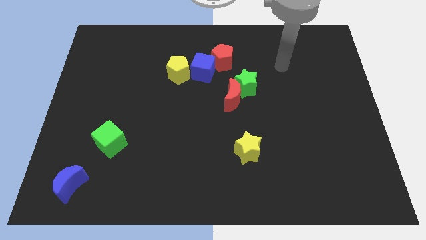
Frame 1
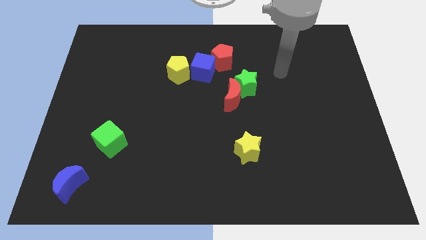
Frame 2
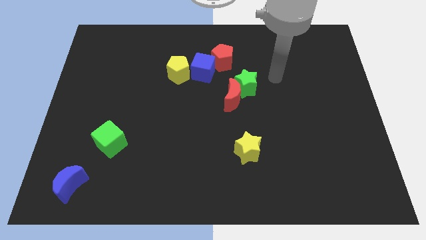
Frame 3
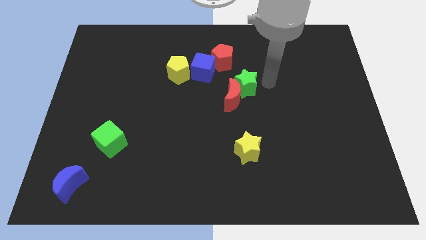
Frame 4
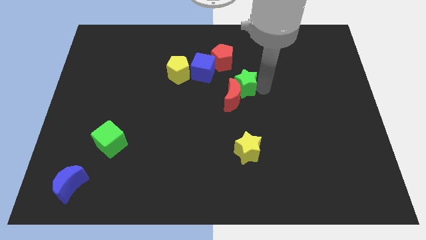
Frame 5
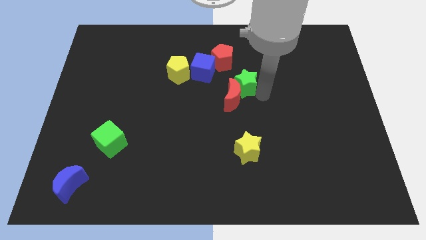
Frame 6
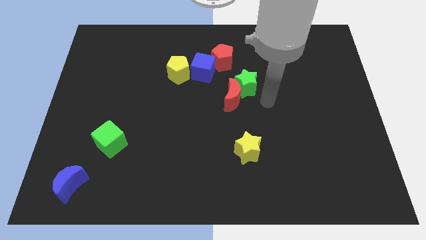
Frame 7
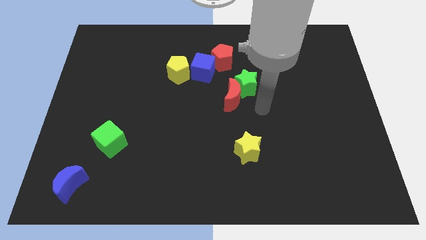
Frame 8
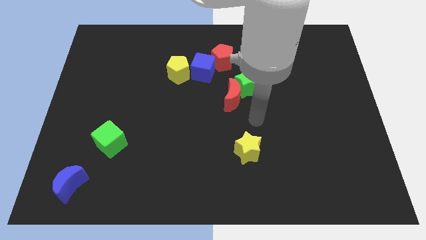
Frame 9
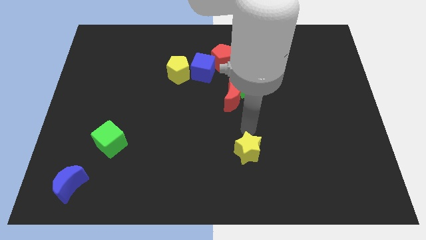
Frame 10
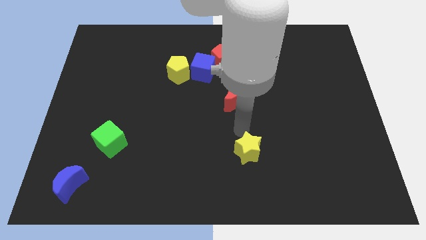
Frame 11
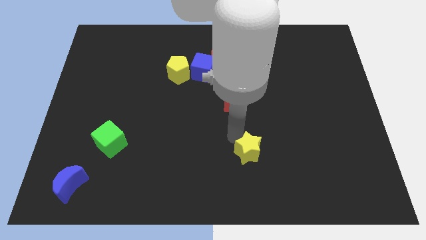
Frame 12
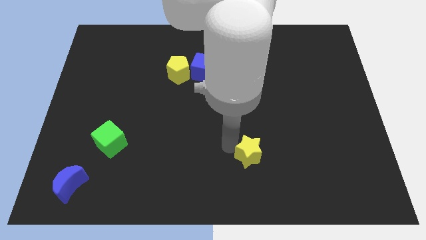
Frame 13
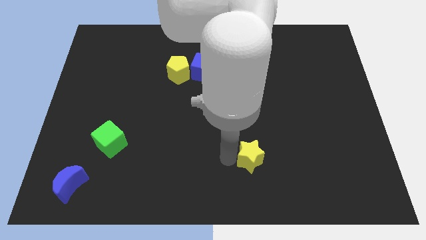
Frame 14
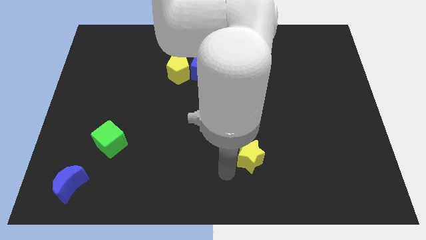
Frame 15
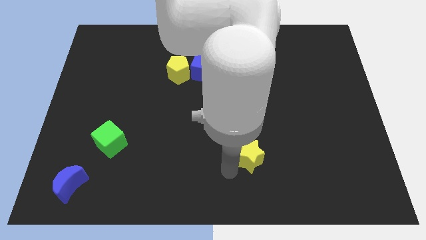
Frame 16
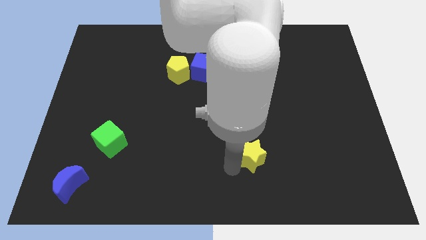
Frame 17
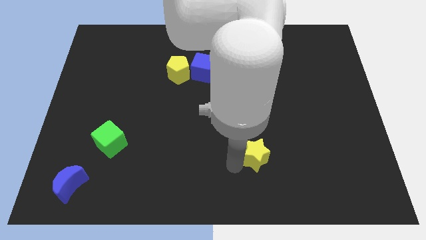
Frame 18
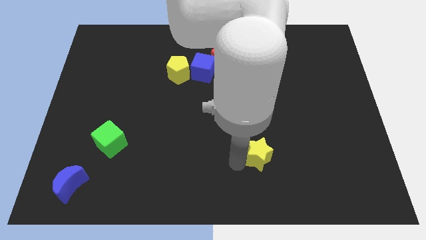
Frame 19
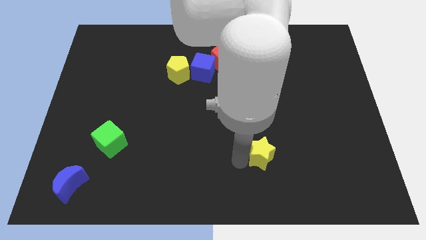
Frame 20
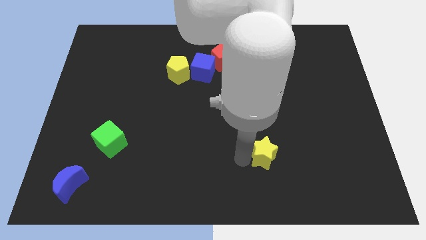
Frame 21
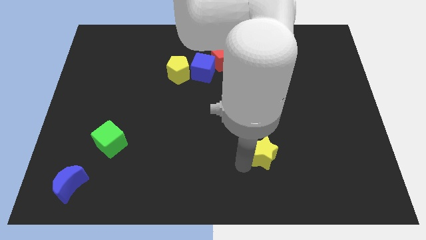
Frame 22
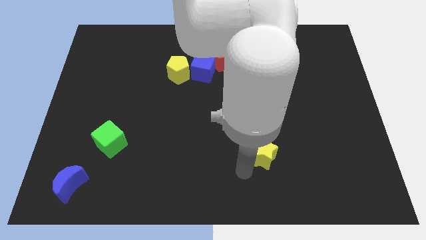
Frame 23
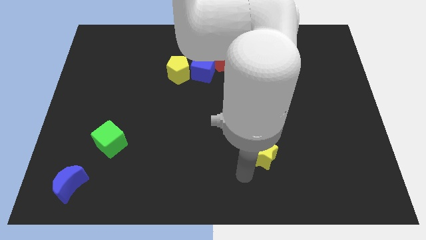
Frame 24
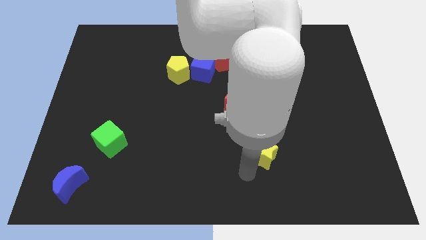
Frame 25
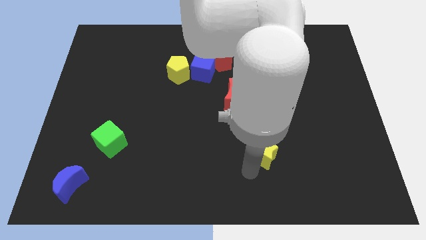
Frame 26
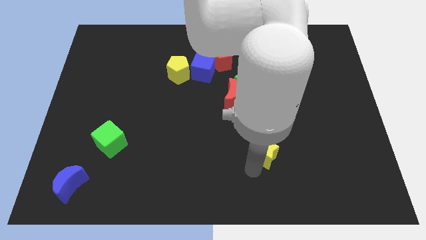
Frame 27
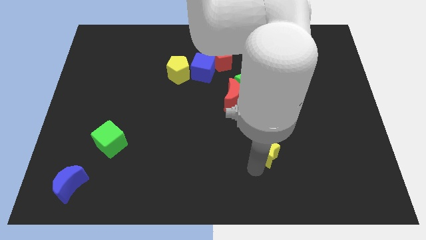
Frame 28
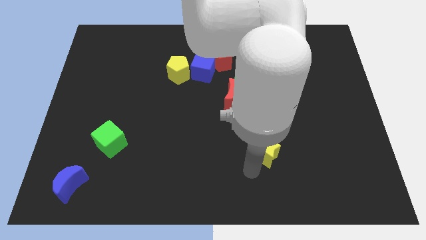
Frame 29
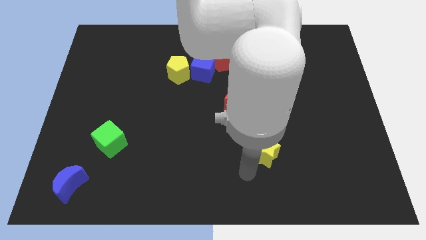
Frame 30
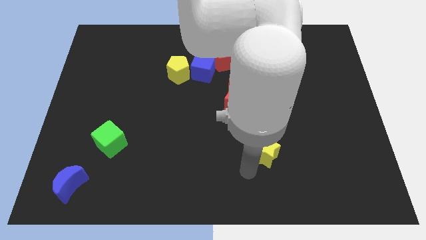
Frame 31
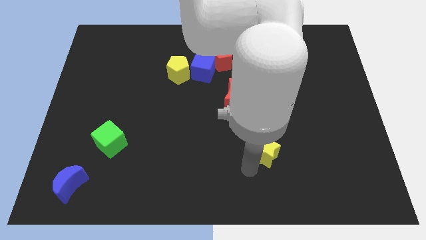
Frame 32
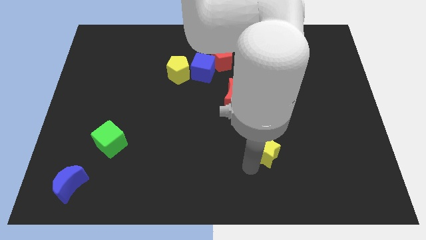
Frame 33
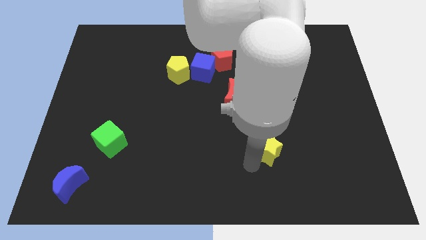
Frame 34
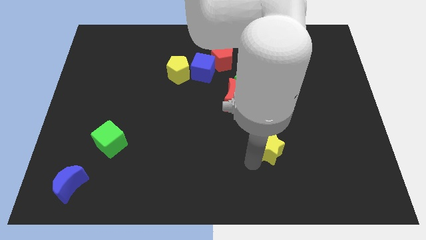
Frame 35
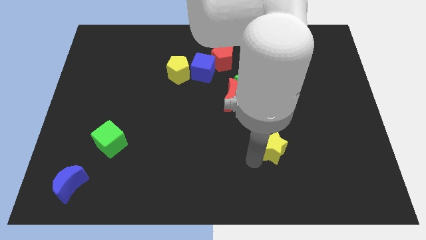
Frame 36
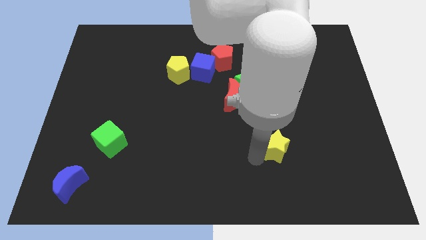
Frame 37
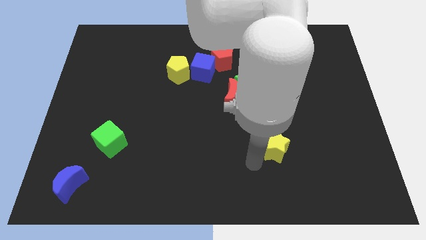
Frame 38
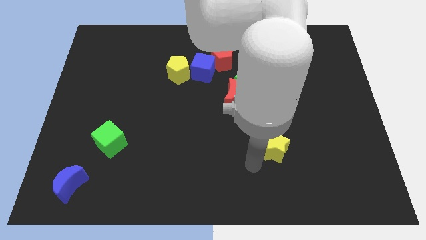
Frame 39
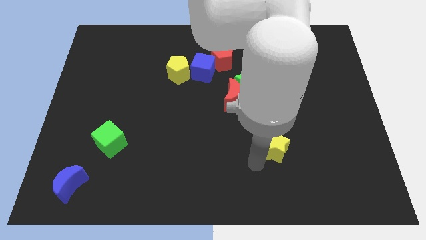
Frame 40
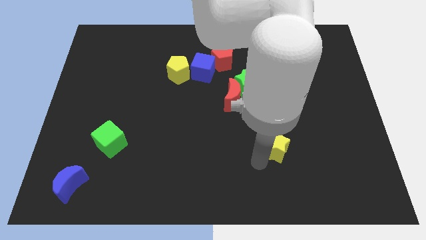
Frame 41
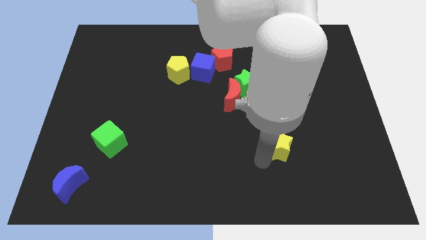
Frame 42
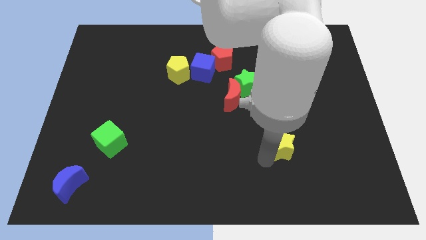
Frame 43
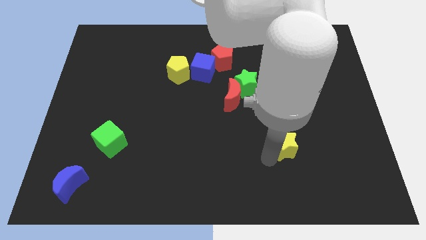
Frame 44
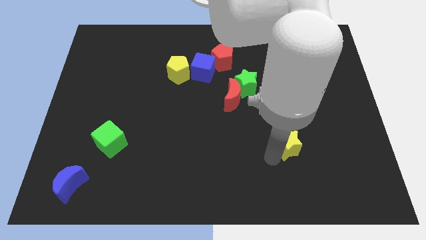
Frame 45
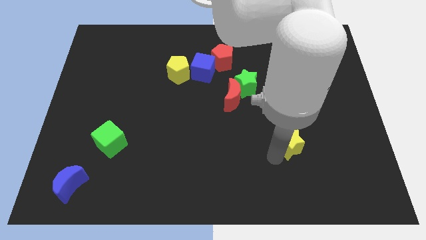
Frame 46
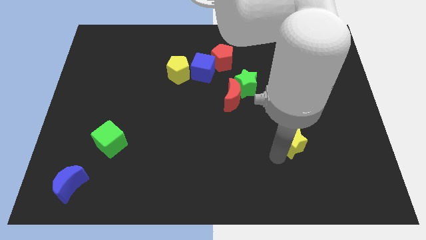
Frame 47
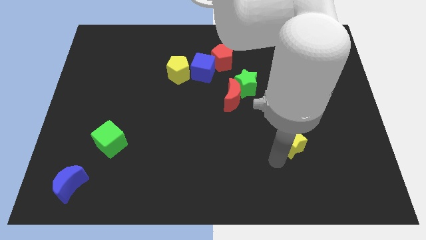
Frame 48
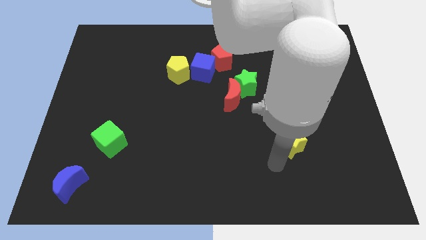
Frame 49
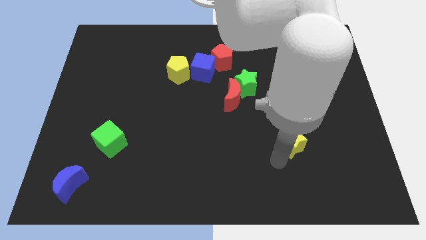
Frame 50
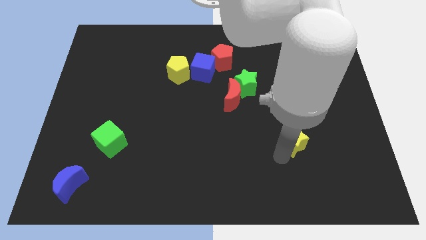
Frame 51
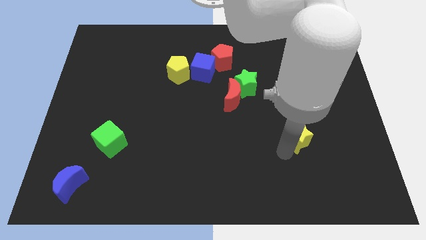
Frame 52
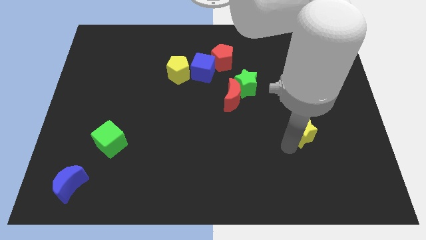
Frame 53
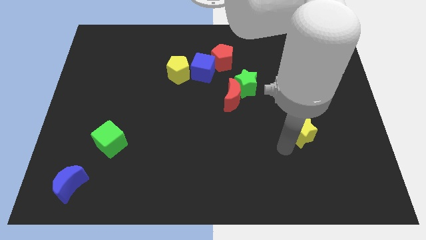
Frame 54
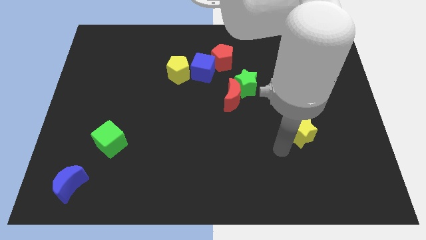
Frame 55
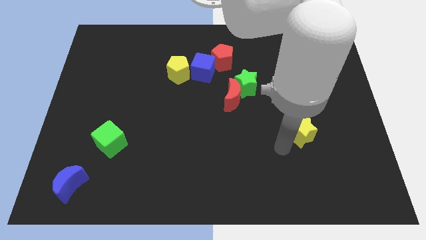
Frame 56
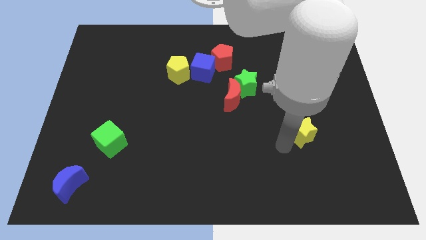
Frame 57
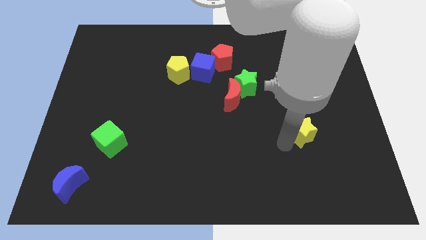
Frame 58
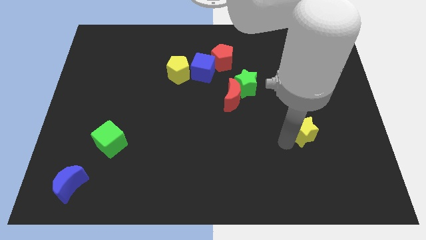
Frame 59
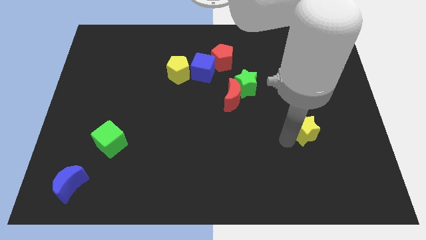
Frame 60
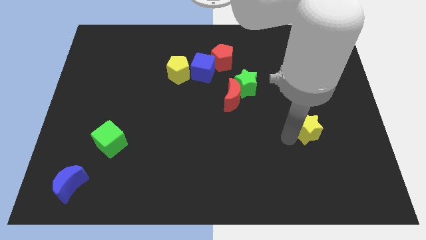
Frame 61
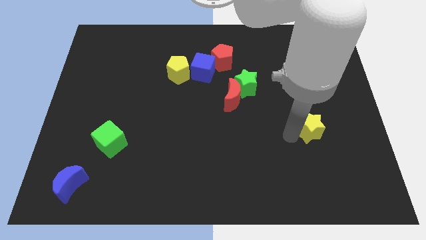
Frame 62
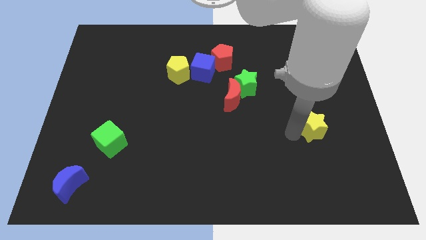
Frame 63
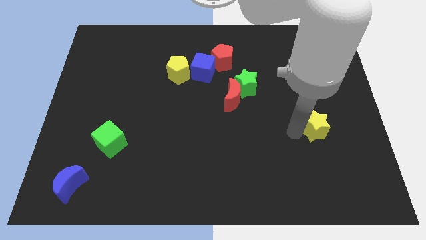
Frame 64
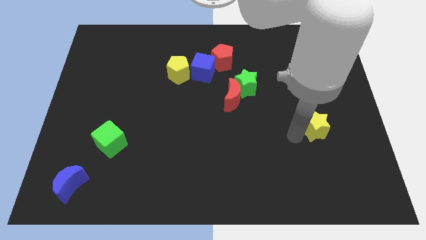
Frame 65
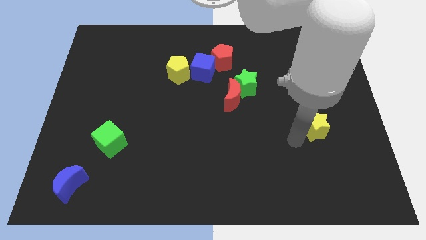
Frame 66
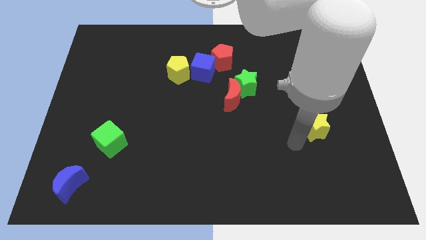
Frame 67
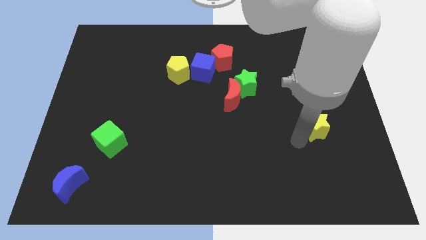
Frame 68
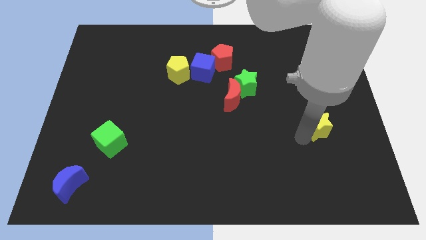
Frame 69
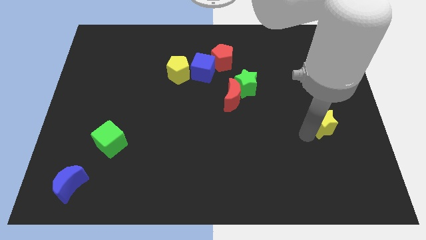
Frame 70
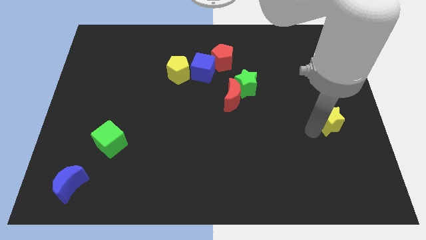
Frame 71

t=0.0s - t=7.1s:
put the yellow star to the right side
